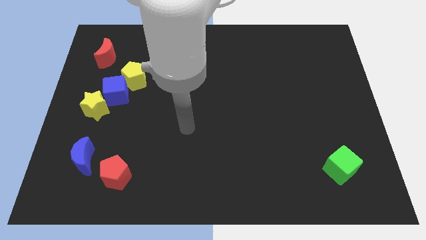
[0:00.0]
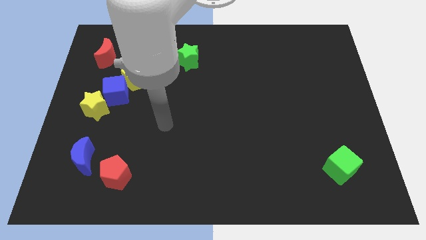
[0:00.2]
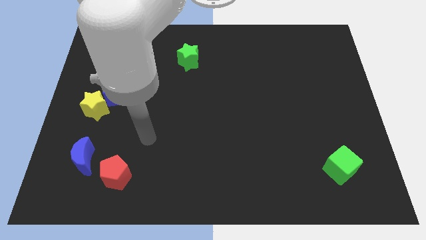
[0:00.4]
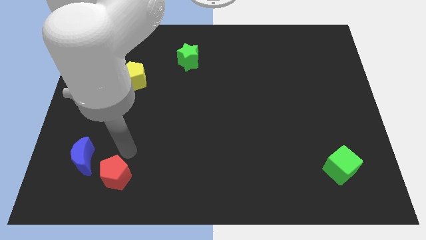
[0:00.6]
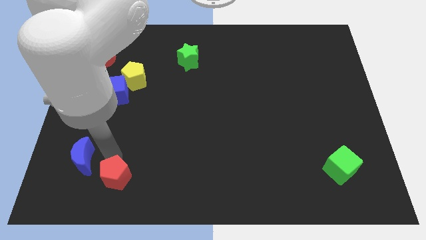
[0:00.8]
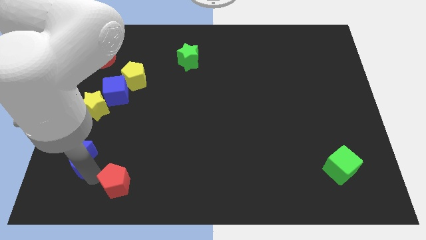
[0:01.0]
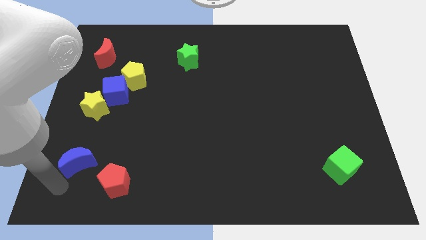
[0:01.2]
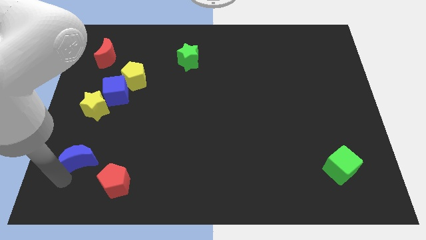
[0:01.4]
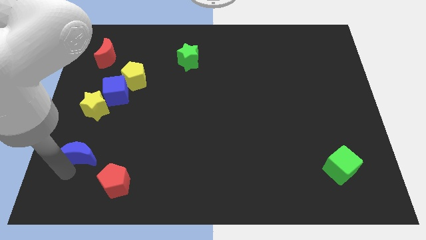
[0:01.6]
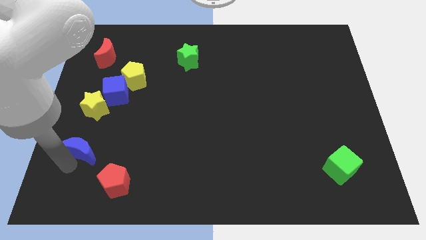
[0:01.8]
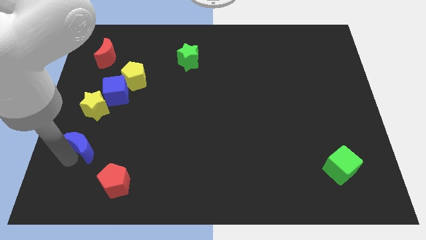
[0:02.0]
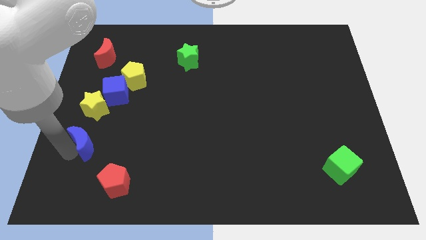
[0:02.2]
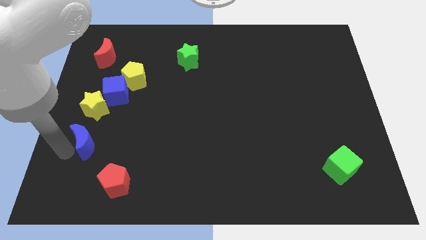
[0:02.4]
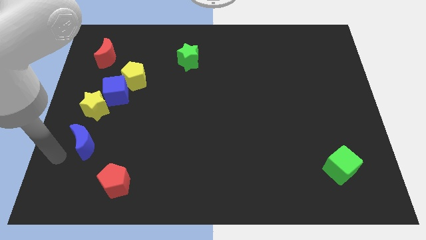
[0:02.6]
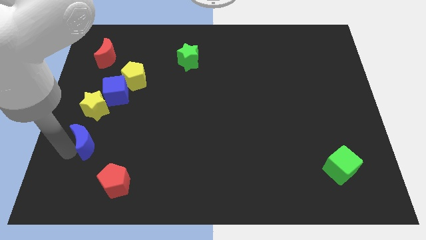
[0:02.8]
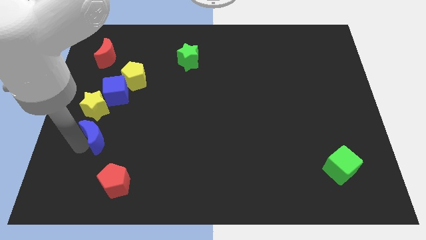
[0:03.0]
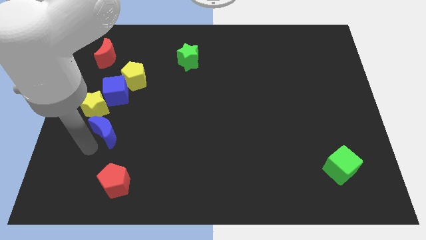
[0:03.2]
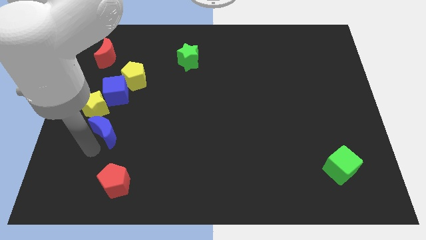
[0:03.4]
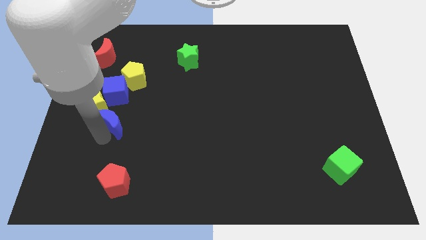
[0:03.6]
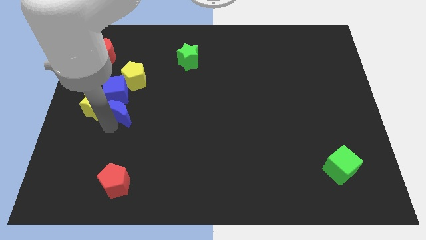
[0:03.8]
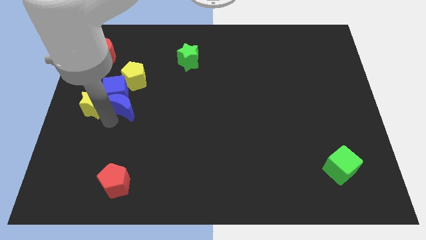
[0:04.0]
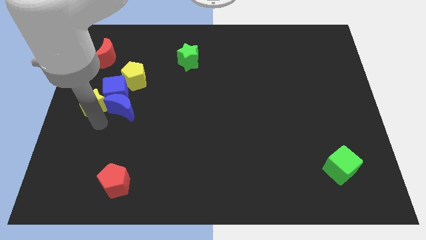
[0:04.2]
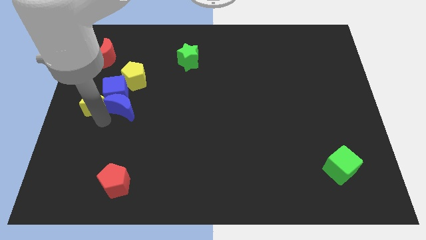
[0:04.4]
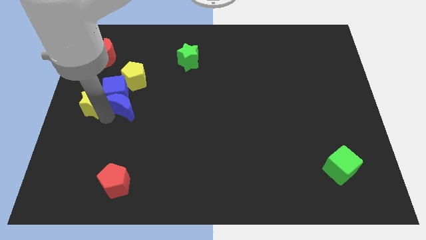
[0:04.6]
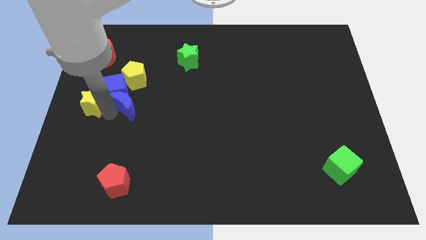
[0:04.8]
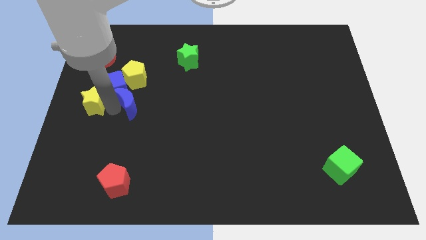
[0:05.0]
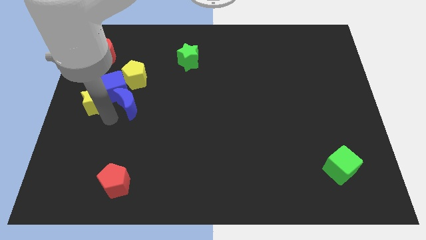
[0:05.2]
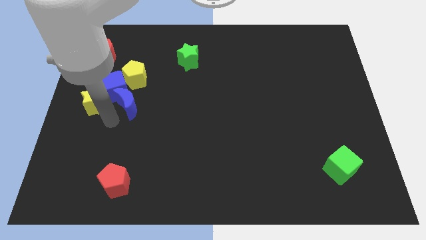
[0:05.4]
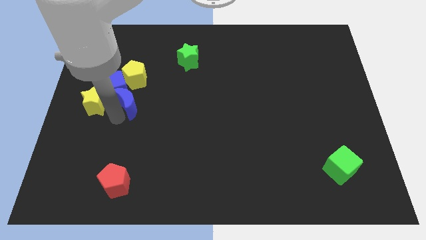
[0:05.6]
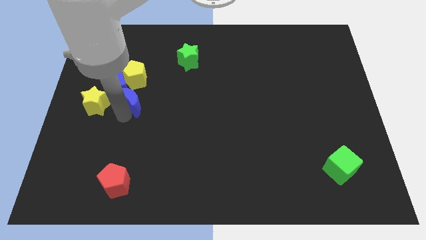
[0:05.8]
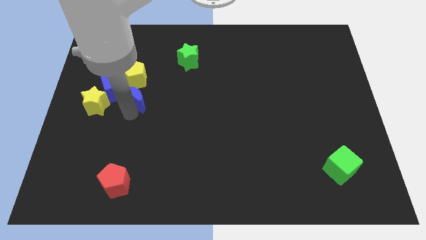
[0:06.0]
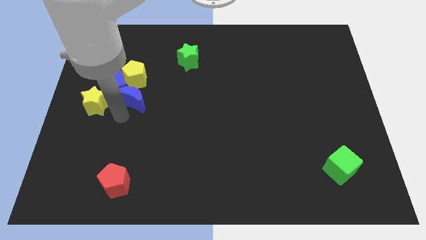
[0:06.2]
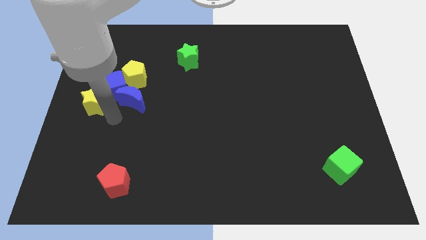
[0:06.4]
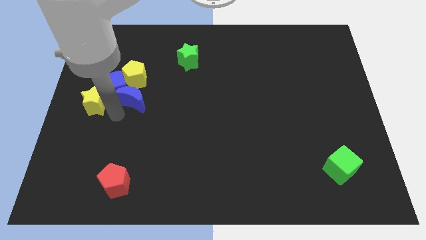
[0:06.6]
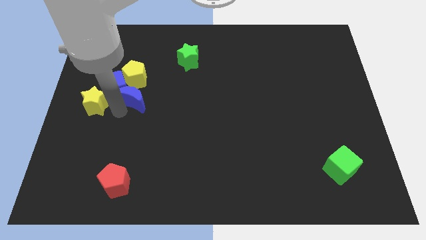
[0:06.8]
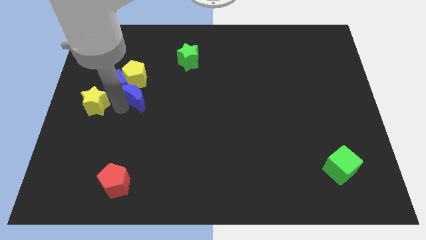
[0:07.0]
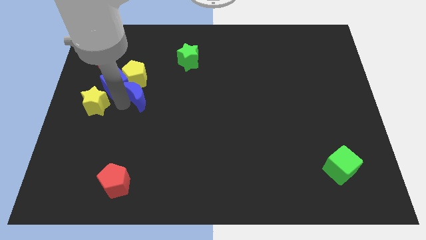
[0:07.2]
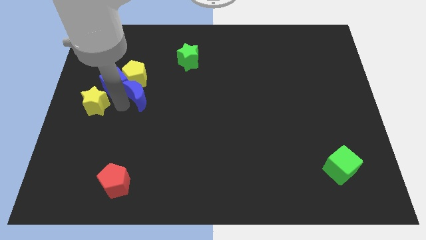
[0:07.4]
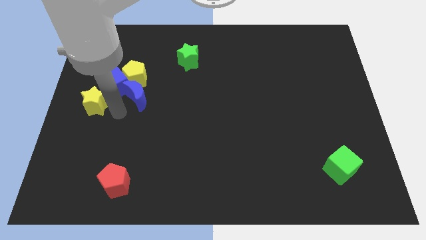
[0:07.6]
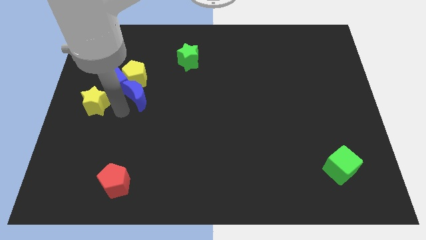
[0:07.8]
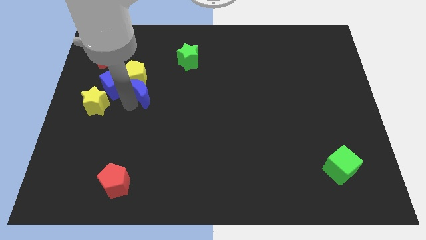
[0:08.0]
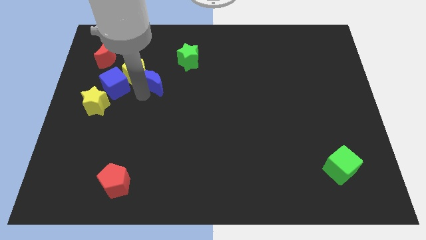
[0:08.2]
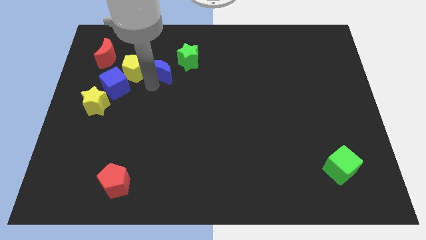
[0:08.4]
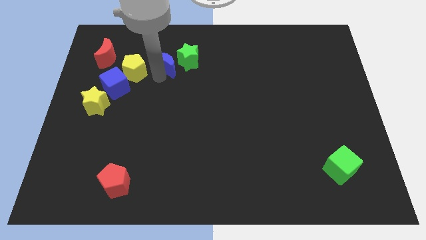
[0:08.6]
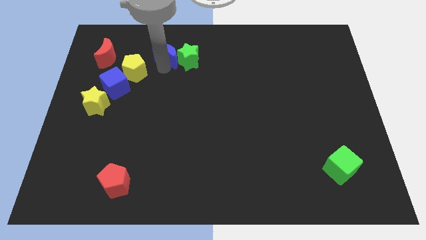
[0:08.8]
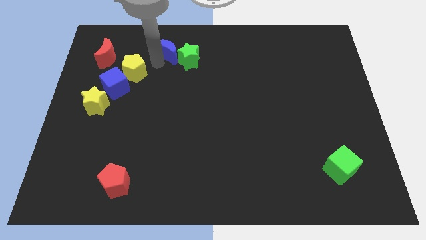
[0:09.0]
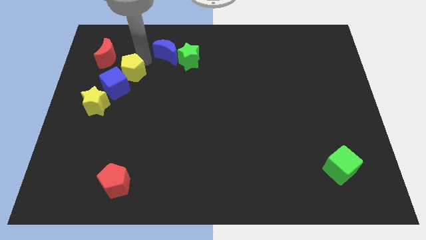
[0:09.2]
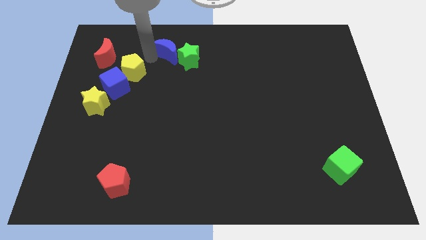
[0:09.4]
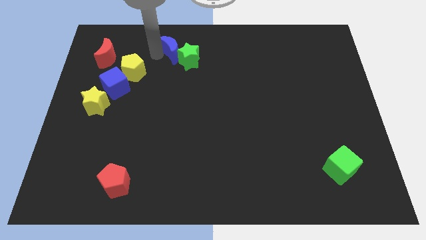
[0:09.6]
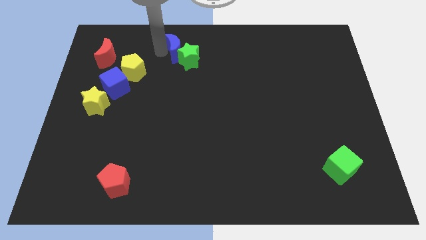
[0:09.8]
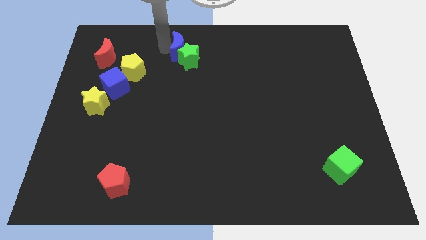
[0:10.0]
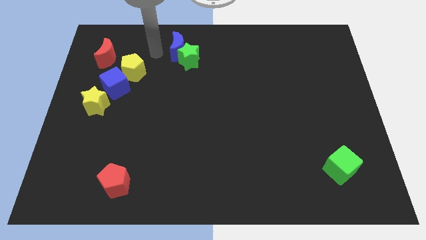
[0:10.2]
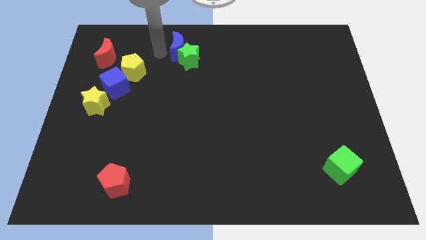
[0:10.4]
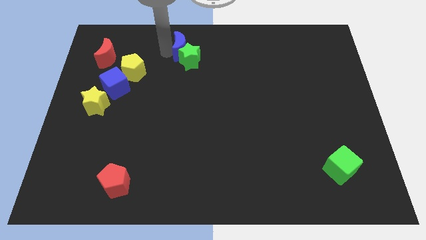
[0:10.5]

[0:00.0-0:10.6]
slide the blue moon to the towards your base
